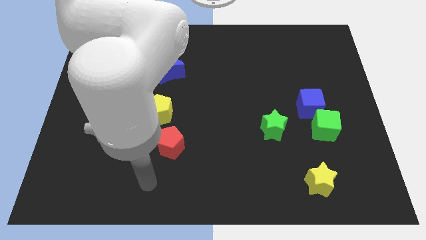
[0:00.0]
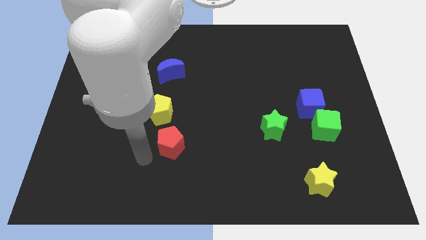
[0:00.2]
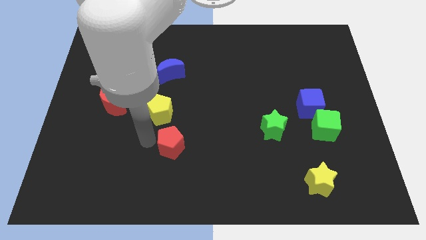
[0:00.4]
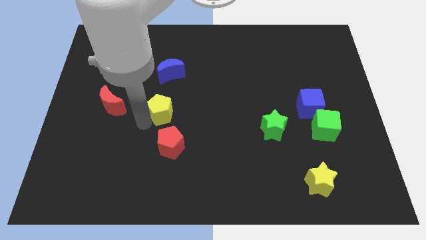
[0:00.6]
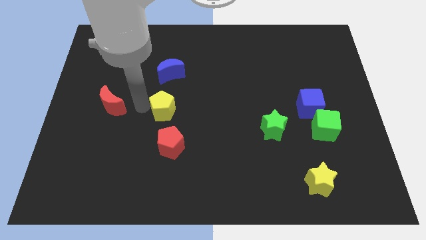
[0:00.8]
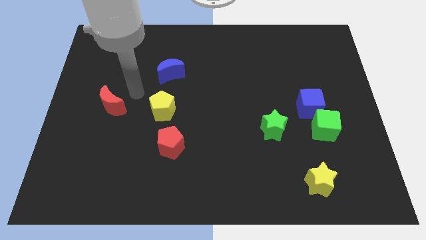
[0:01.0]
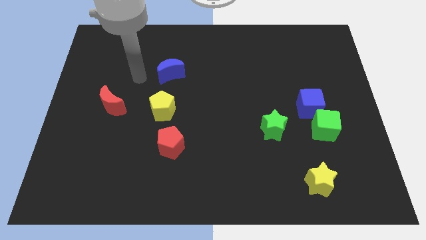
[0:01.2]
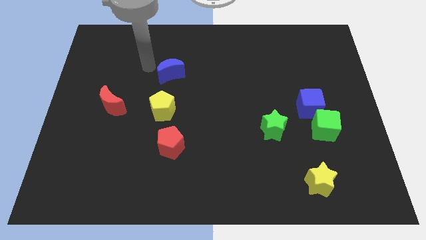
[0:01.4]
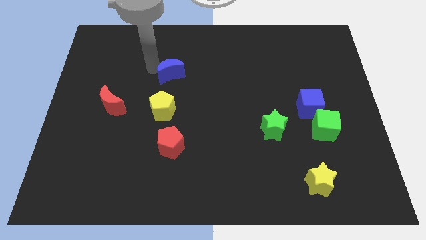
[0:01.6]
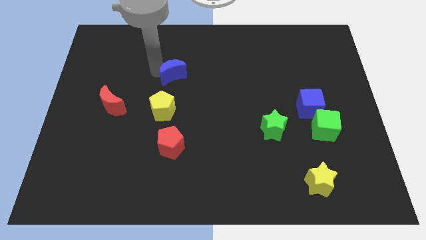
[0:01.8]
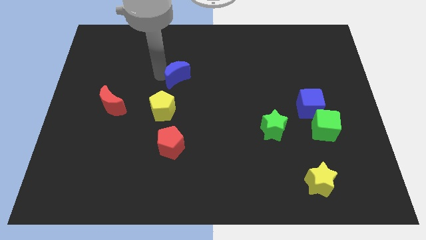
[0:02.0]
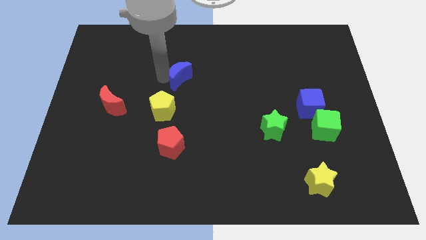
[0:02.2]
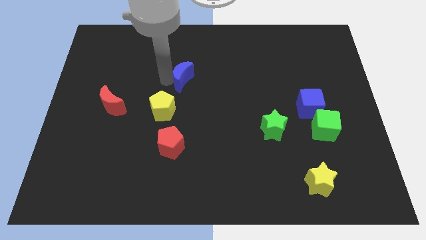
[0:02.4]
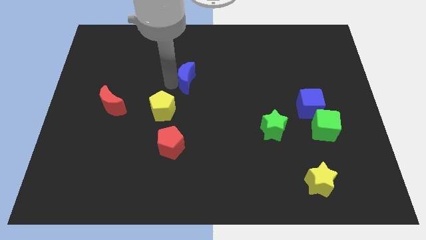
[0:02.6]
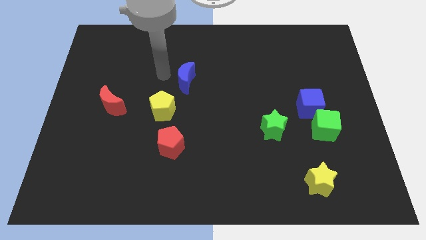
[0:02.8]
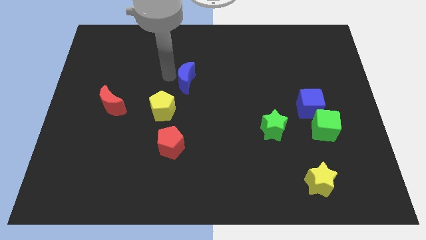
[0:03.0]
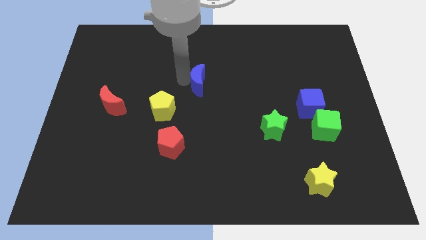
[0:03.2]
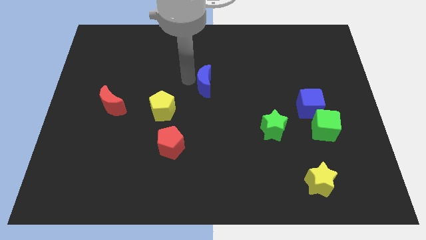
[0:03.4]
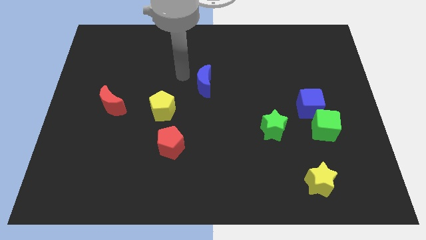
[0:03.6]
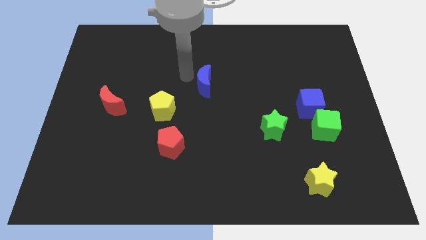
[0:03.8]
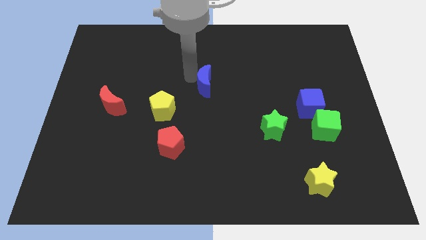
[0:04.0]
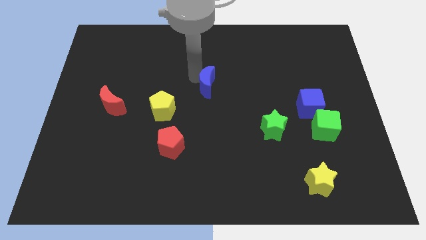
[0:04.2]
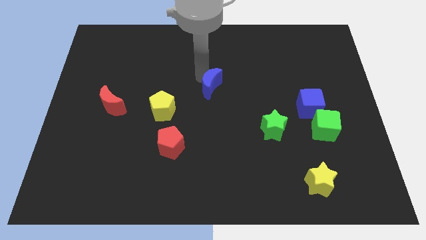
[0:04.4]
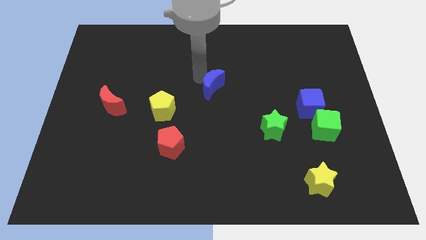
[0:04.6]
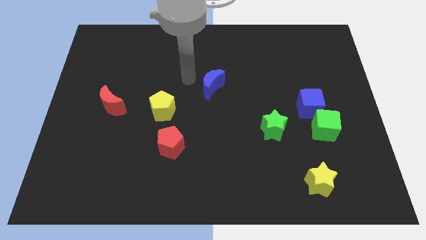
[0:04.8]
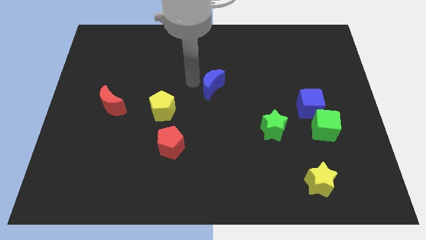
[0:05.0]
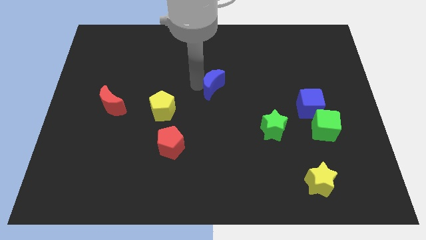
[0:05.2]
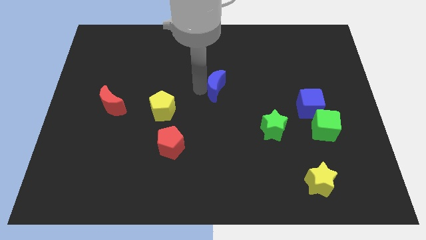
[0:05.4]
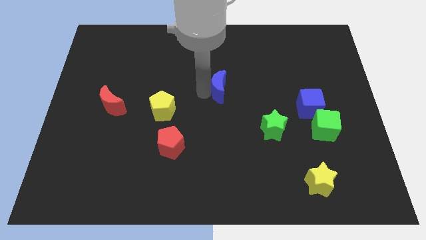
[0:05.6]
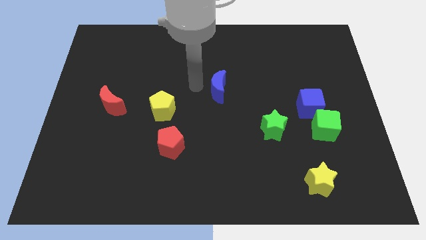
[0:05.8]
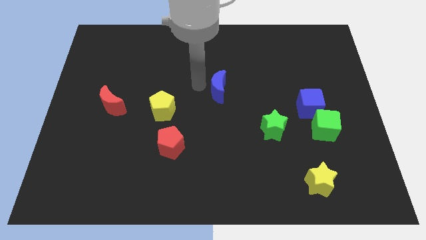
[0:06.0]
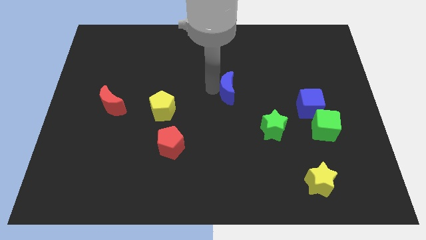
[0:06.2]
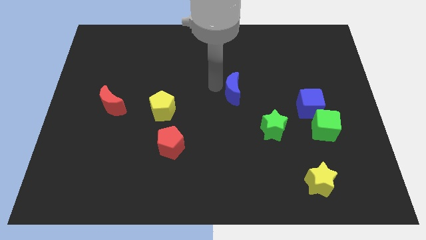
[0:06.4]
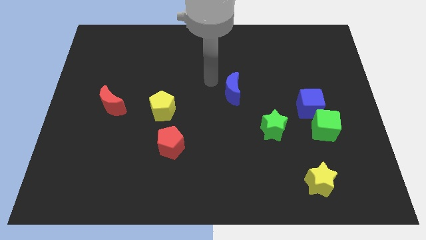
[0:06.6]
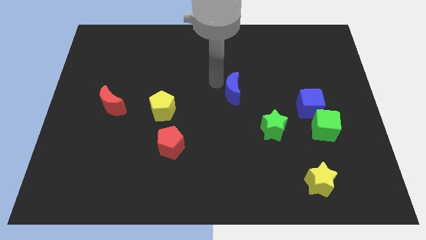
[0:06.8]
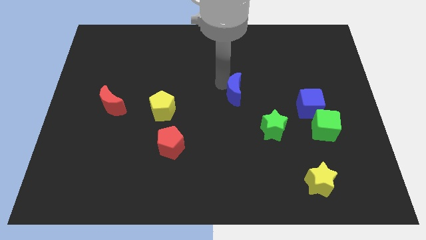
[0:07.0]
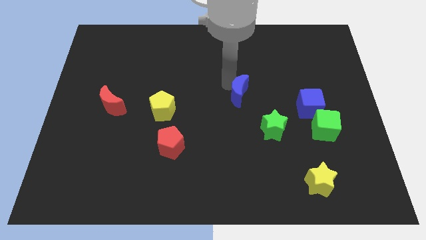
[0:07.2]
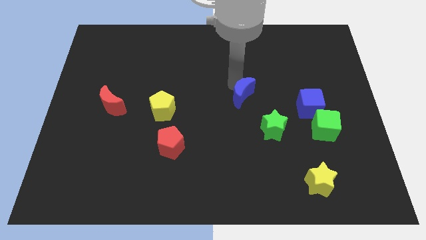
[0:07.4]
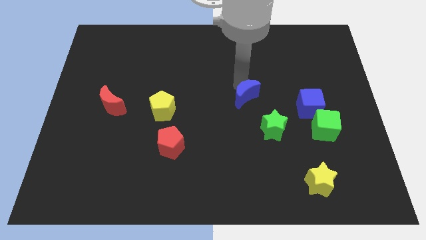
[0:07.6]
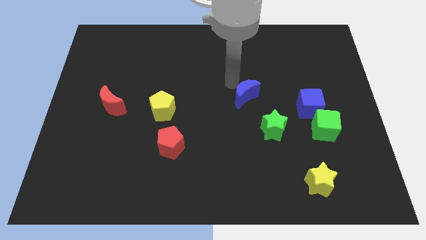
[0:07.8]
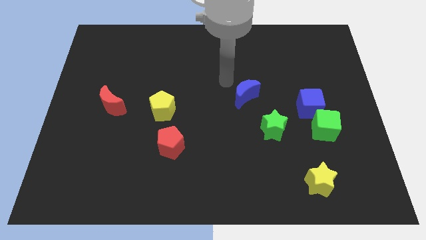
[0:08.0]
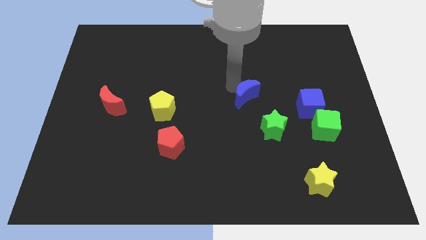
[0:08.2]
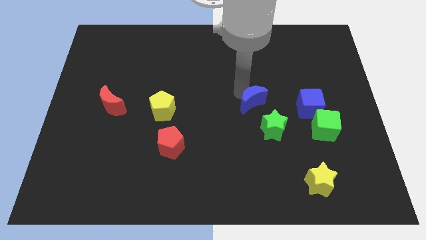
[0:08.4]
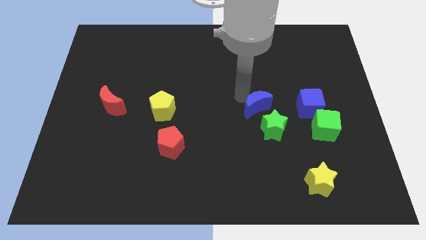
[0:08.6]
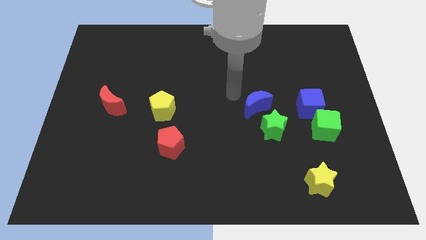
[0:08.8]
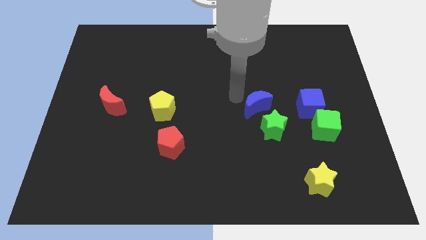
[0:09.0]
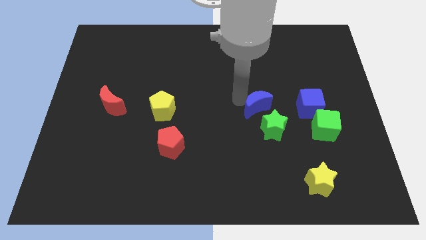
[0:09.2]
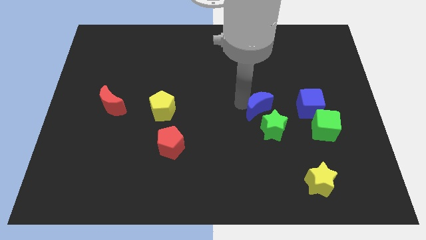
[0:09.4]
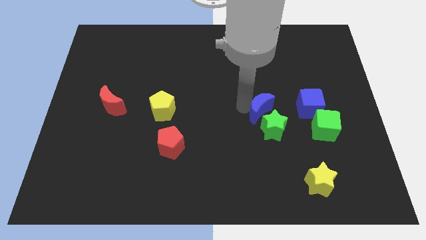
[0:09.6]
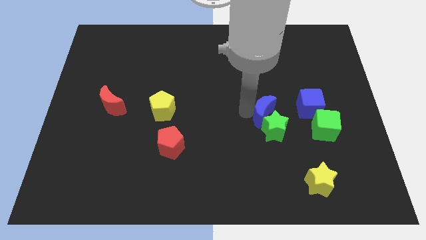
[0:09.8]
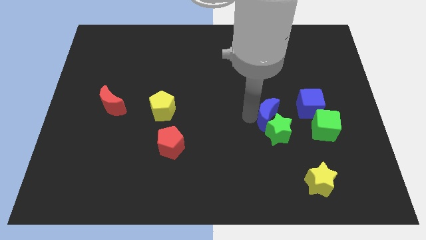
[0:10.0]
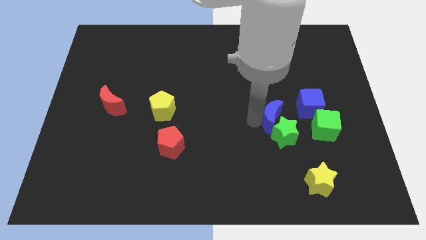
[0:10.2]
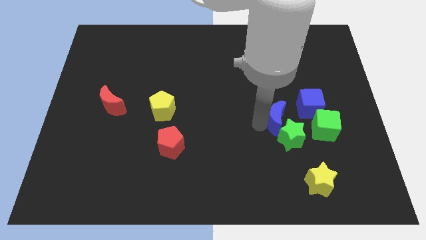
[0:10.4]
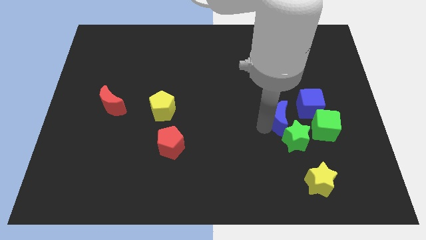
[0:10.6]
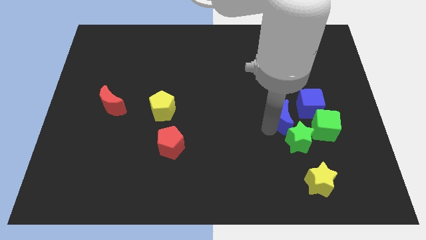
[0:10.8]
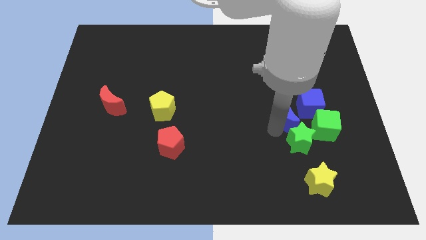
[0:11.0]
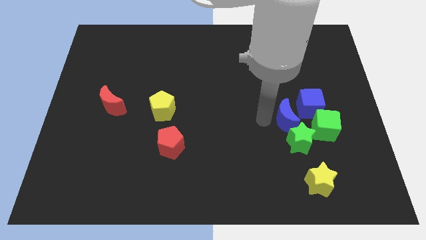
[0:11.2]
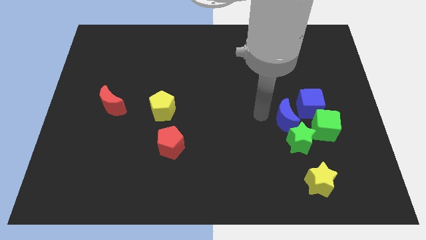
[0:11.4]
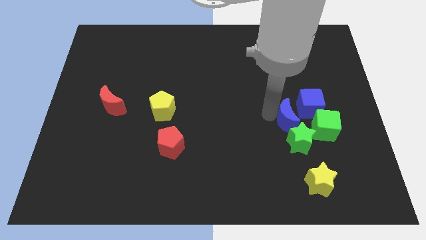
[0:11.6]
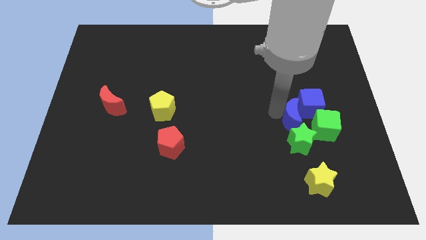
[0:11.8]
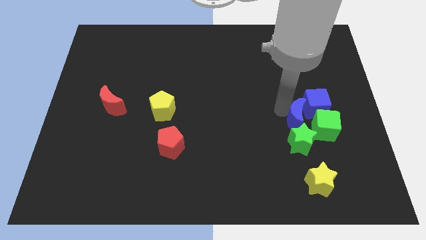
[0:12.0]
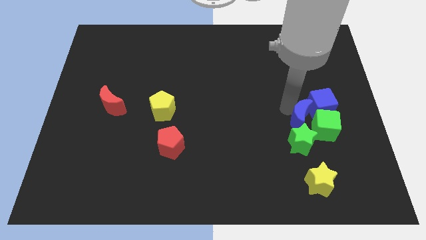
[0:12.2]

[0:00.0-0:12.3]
slide the blue moon to the green cube

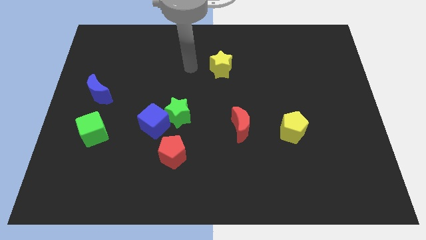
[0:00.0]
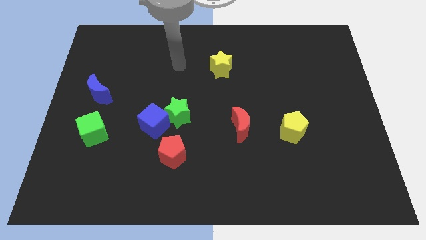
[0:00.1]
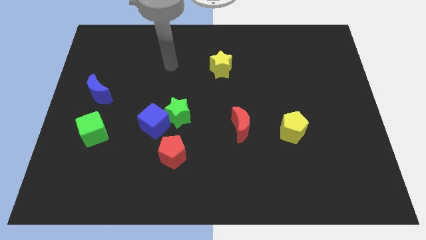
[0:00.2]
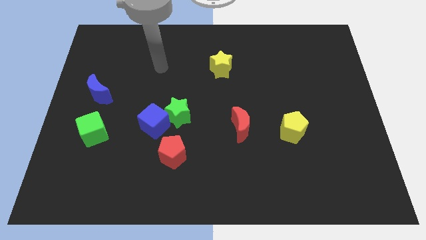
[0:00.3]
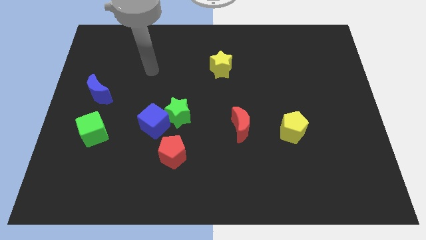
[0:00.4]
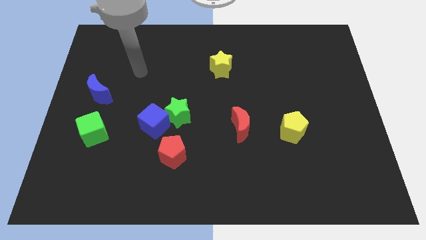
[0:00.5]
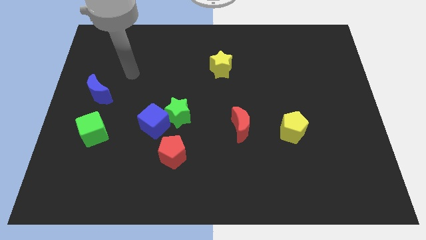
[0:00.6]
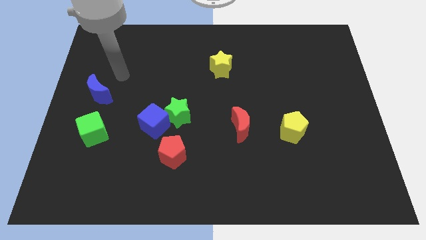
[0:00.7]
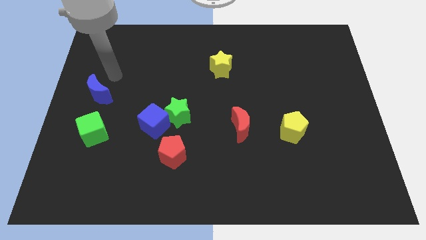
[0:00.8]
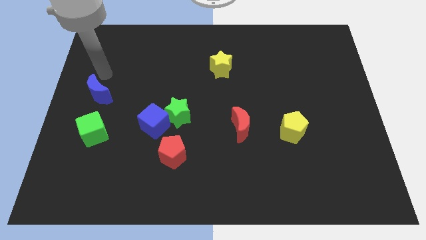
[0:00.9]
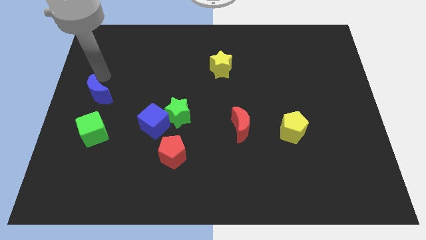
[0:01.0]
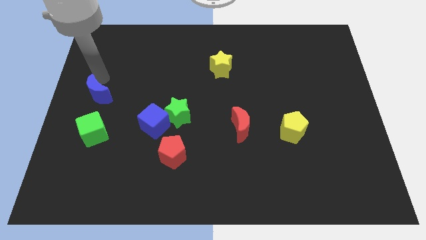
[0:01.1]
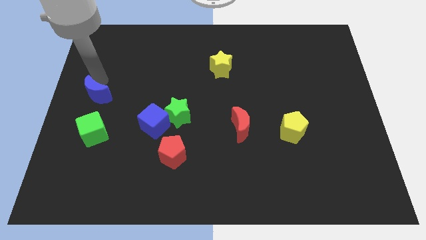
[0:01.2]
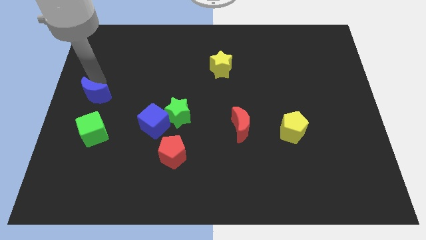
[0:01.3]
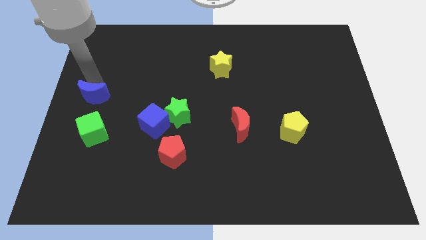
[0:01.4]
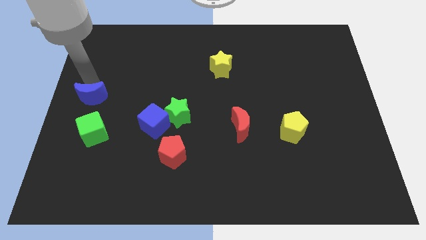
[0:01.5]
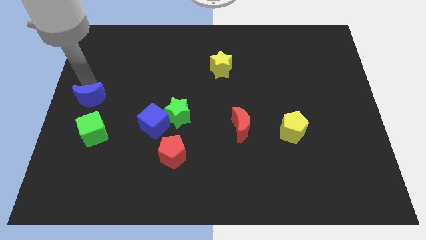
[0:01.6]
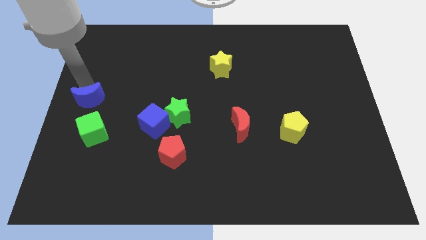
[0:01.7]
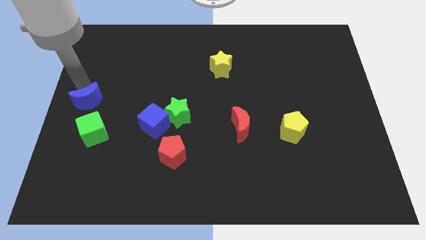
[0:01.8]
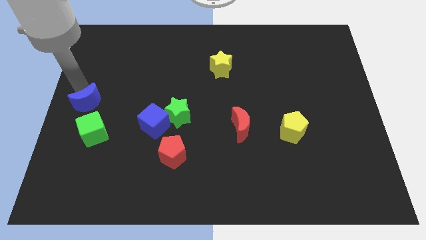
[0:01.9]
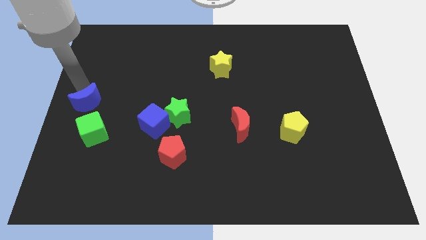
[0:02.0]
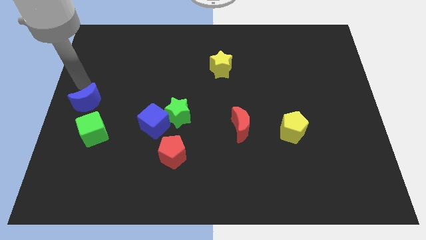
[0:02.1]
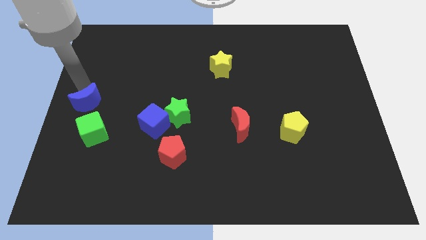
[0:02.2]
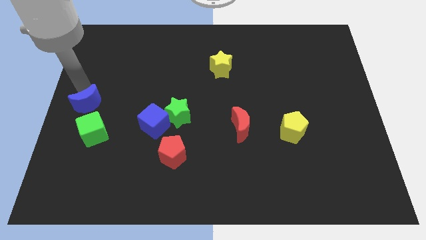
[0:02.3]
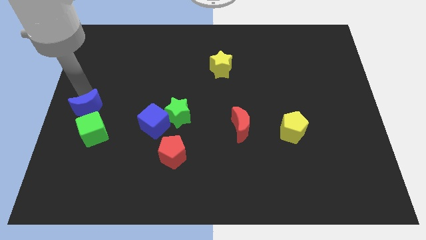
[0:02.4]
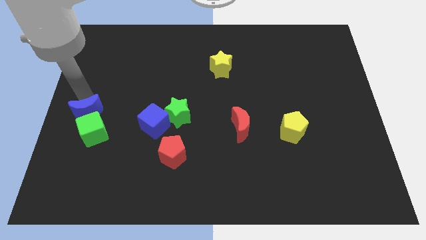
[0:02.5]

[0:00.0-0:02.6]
slide the blue moon close to the green cube
